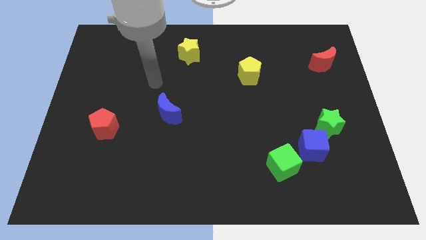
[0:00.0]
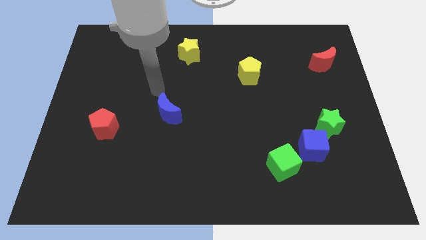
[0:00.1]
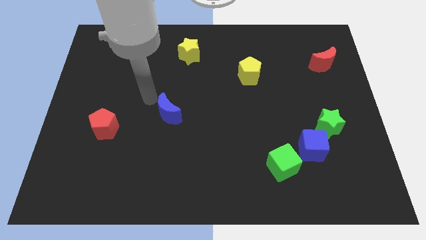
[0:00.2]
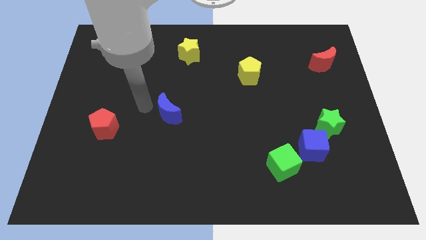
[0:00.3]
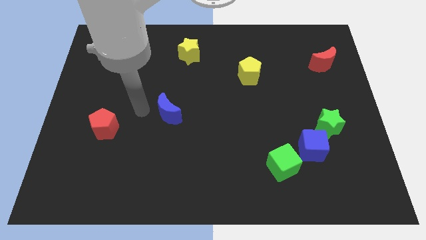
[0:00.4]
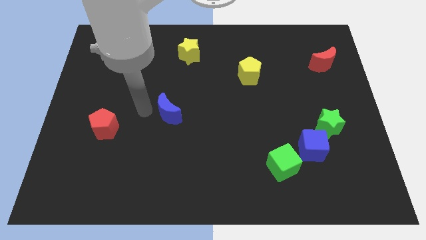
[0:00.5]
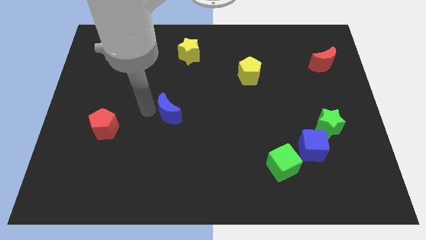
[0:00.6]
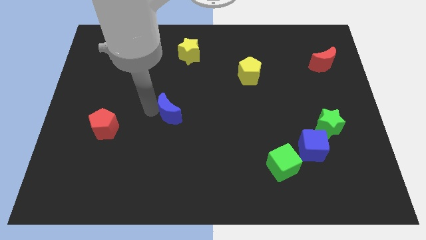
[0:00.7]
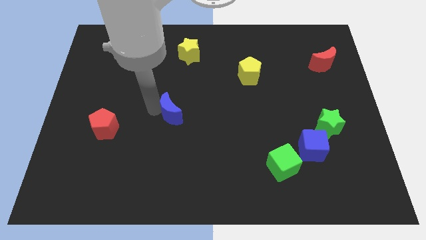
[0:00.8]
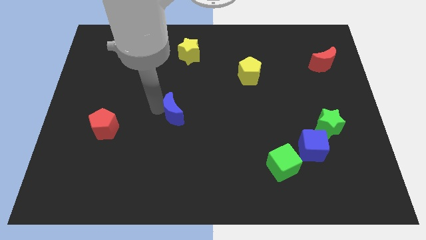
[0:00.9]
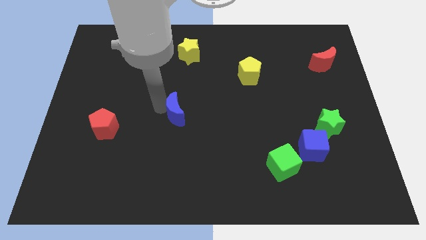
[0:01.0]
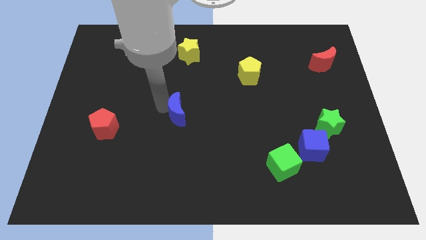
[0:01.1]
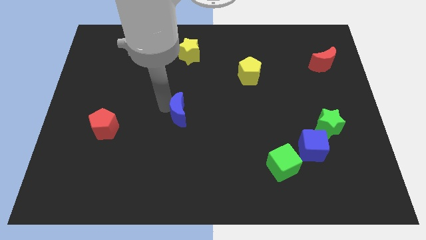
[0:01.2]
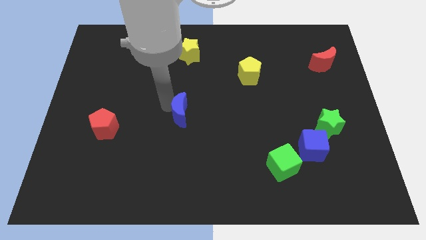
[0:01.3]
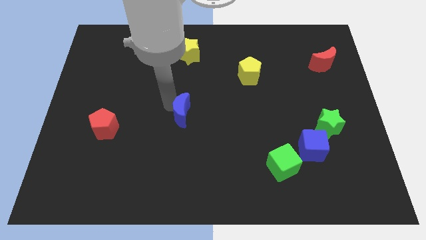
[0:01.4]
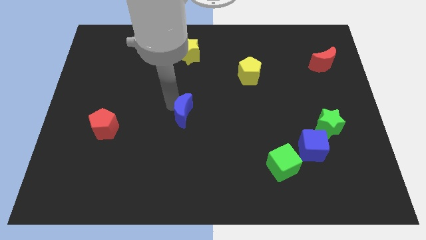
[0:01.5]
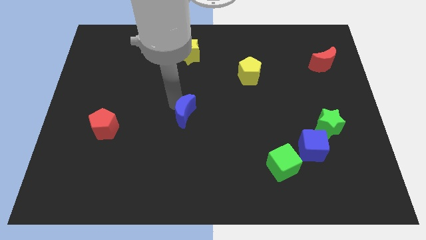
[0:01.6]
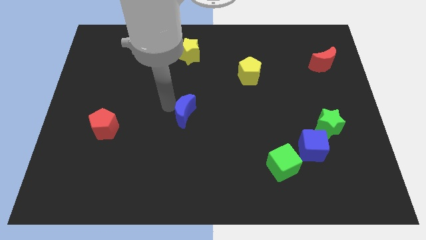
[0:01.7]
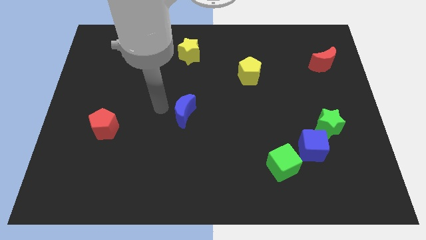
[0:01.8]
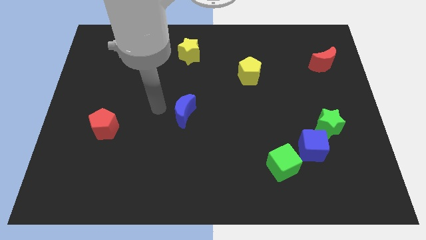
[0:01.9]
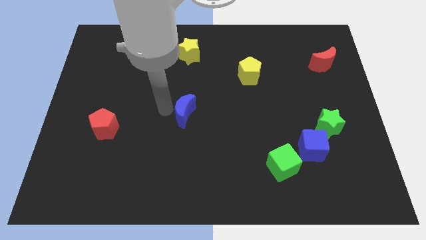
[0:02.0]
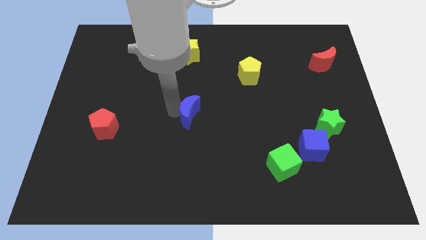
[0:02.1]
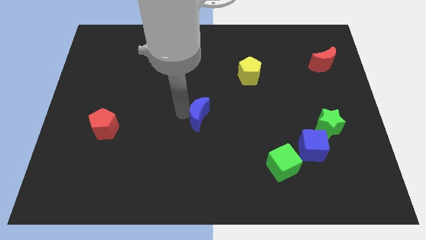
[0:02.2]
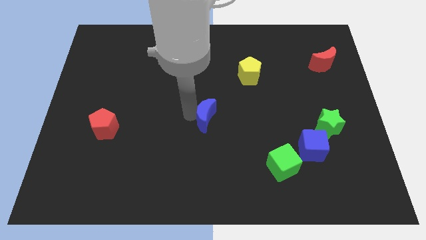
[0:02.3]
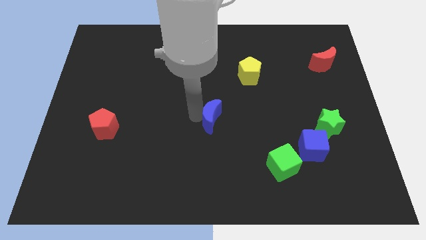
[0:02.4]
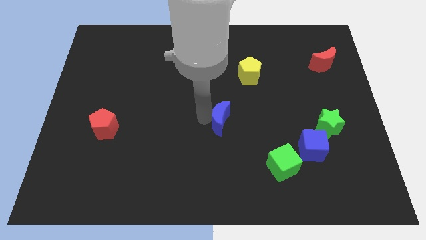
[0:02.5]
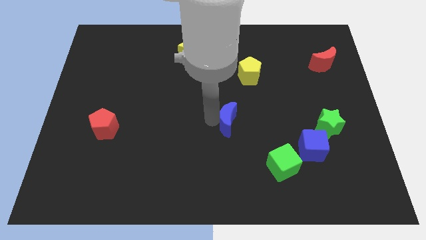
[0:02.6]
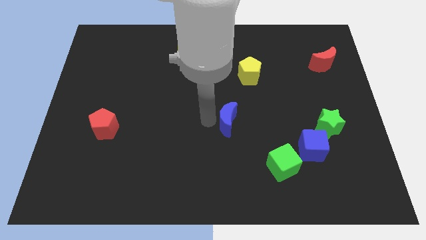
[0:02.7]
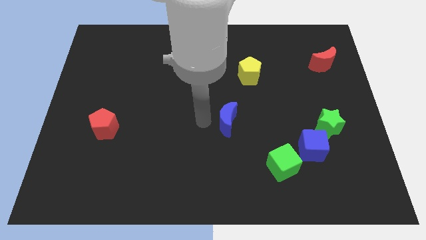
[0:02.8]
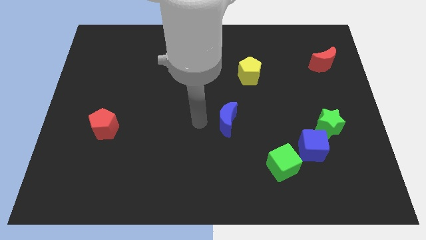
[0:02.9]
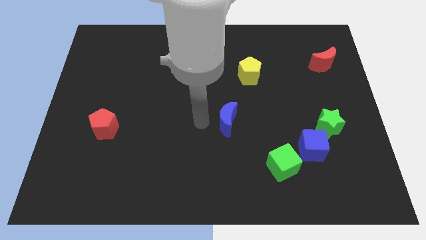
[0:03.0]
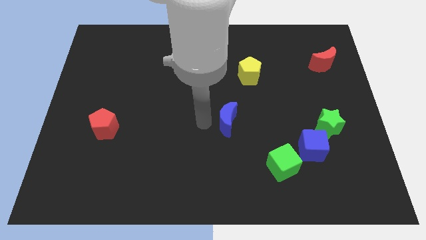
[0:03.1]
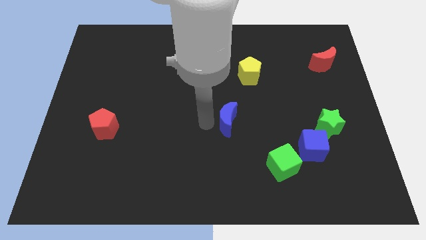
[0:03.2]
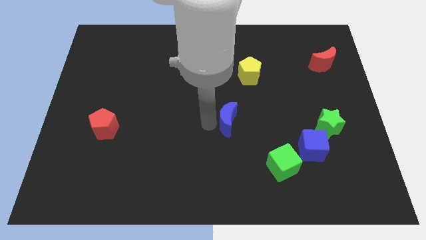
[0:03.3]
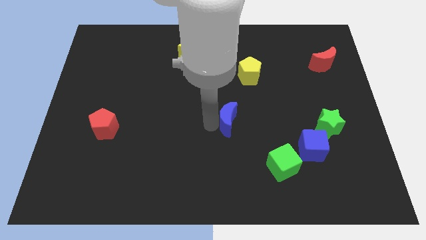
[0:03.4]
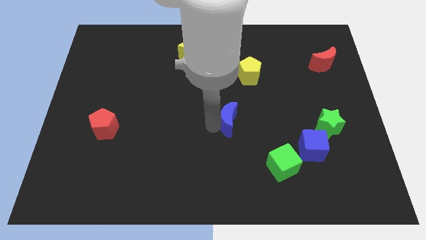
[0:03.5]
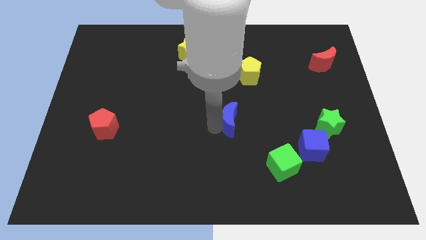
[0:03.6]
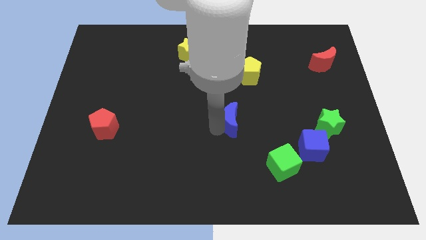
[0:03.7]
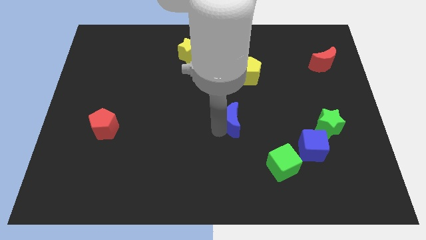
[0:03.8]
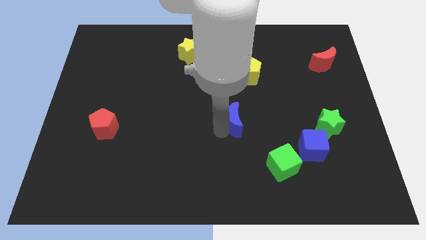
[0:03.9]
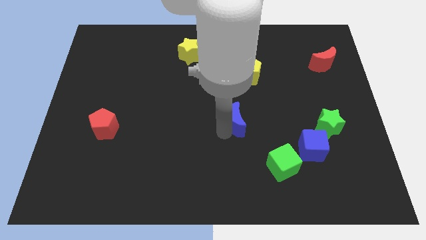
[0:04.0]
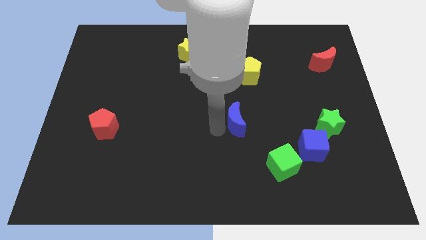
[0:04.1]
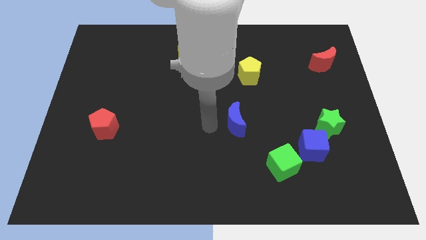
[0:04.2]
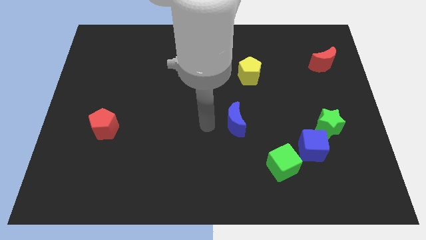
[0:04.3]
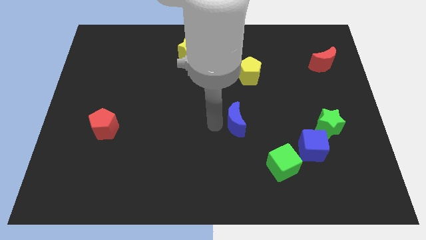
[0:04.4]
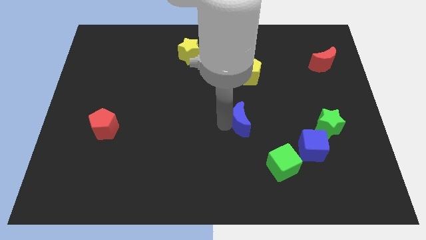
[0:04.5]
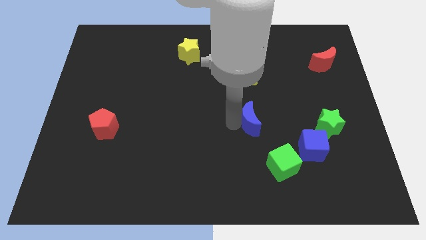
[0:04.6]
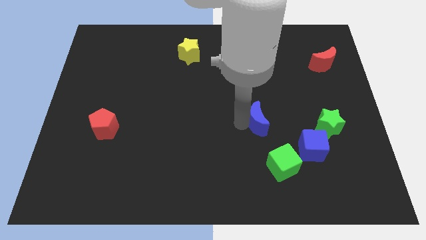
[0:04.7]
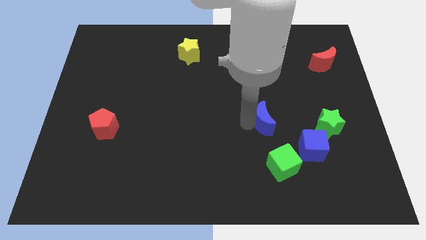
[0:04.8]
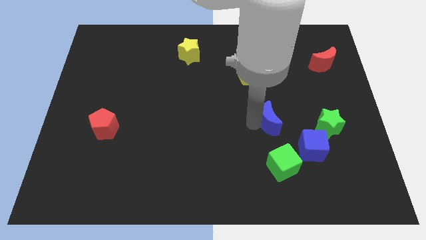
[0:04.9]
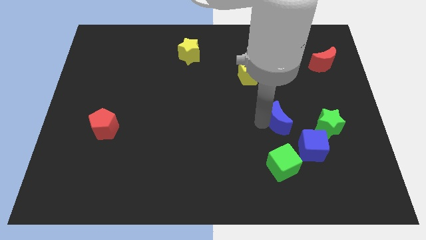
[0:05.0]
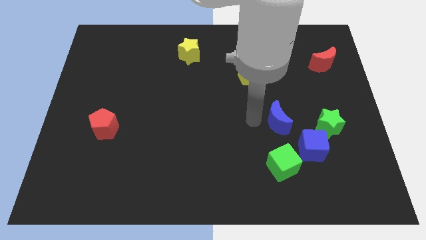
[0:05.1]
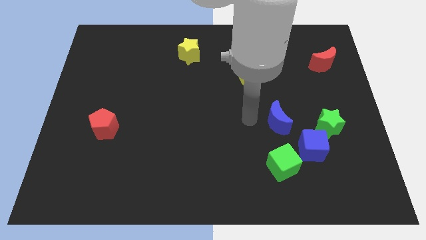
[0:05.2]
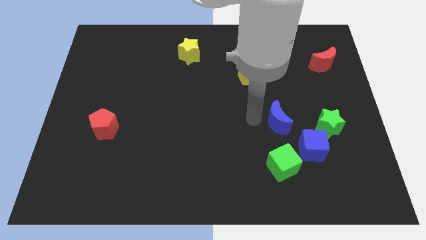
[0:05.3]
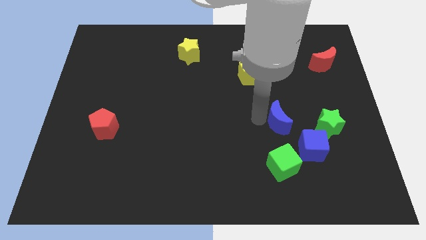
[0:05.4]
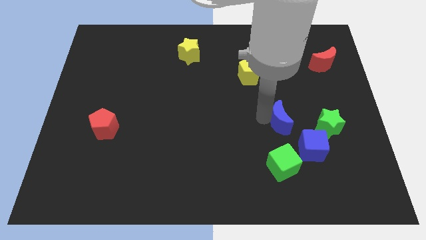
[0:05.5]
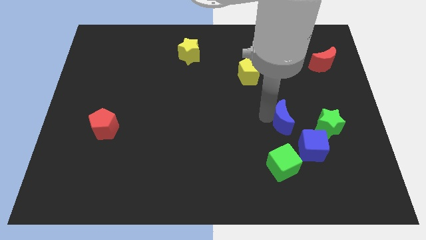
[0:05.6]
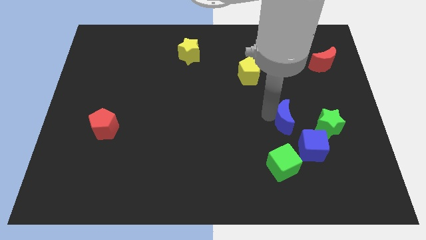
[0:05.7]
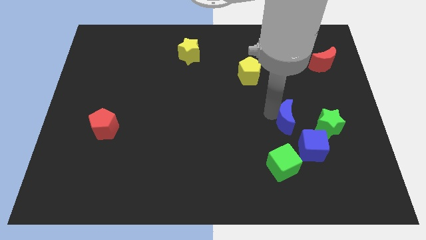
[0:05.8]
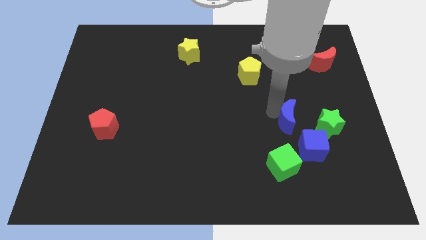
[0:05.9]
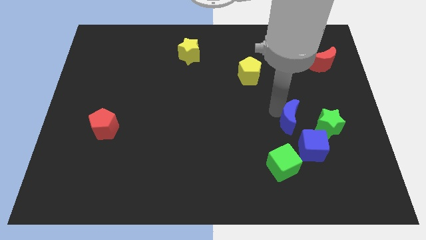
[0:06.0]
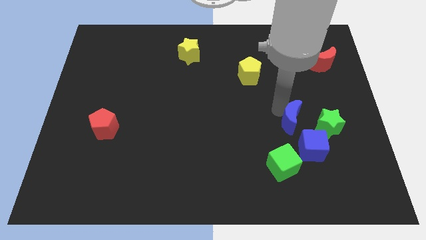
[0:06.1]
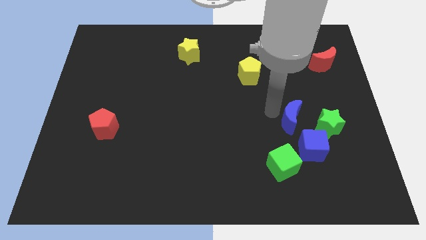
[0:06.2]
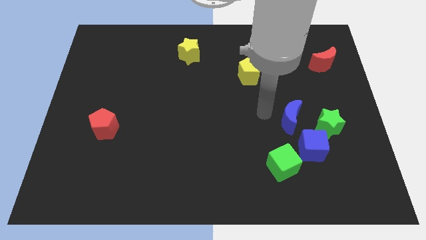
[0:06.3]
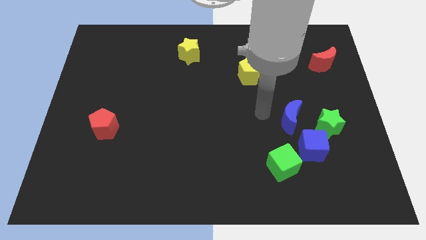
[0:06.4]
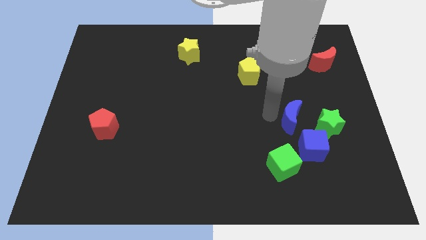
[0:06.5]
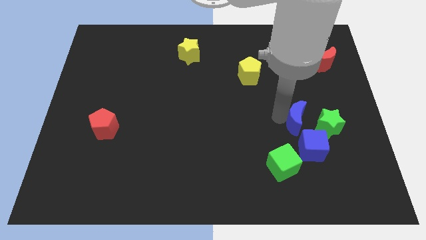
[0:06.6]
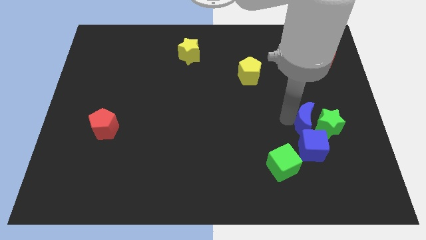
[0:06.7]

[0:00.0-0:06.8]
push the blue moon towards the green star

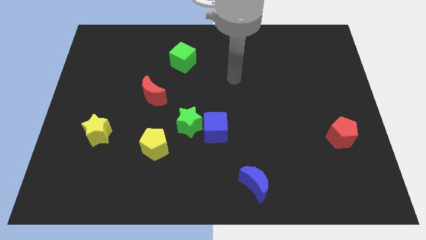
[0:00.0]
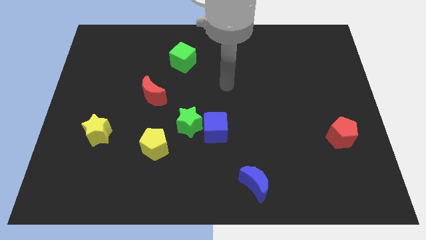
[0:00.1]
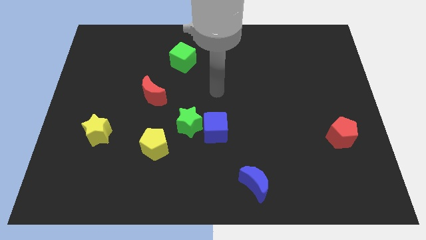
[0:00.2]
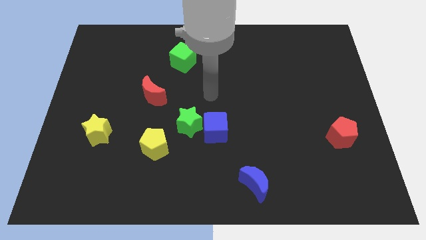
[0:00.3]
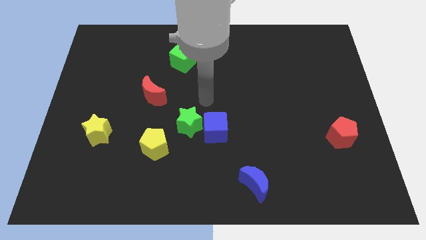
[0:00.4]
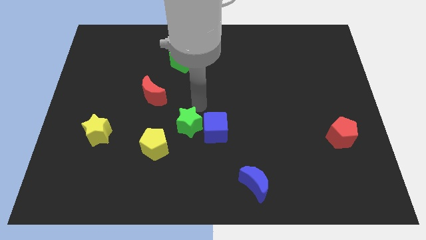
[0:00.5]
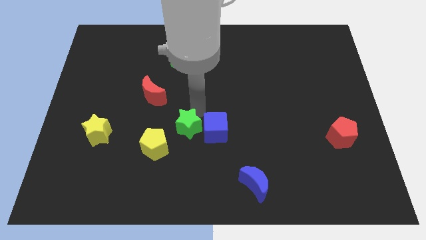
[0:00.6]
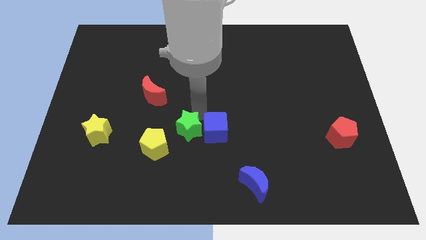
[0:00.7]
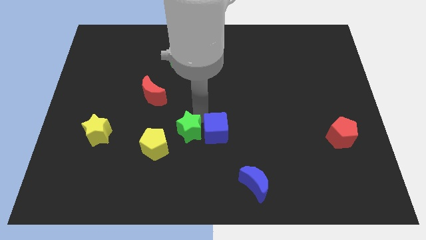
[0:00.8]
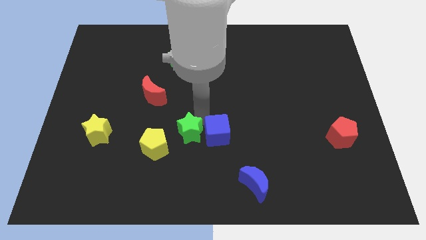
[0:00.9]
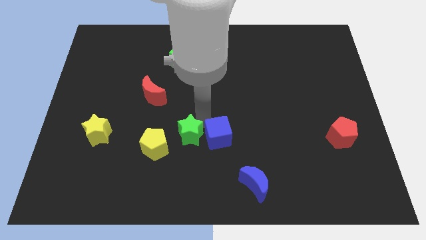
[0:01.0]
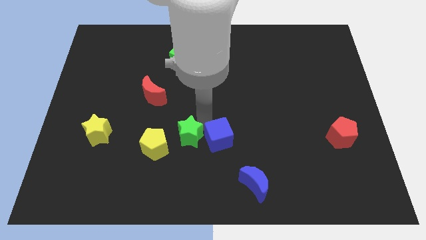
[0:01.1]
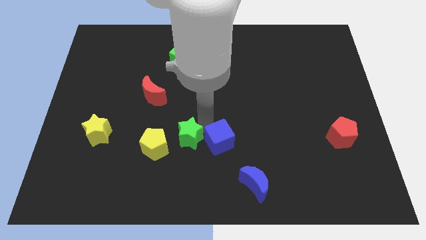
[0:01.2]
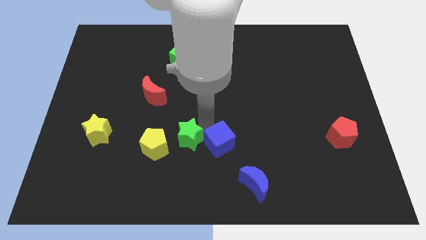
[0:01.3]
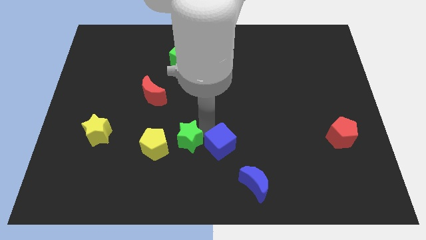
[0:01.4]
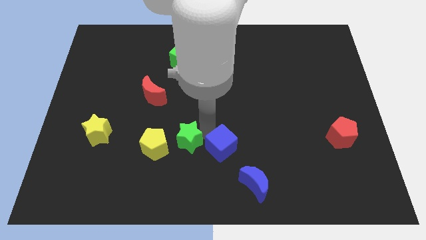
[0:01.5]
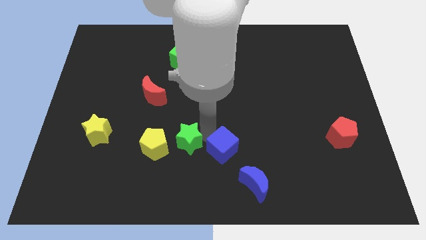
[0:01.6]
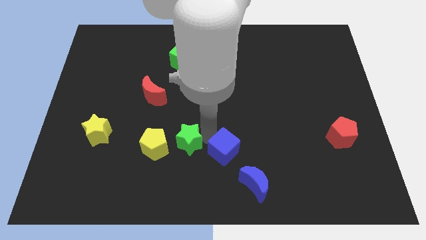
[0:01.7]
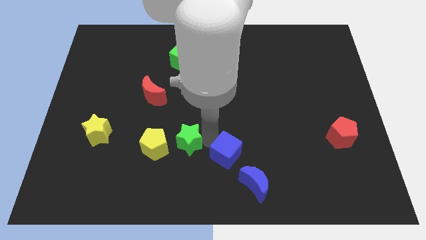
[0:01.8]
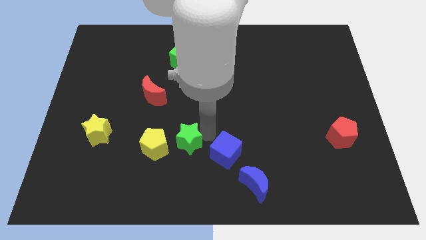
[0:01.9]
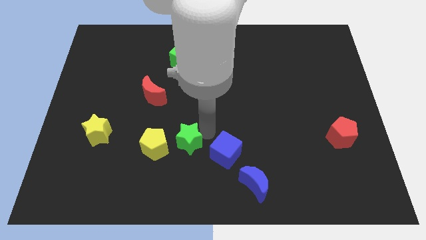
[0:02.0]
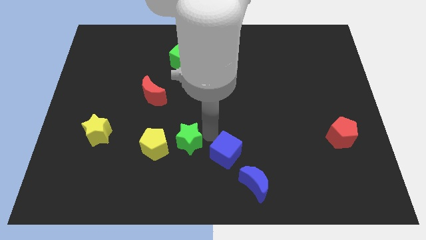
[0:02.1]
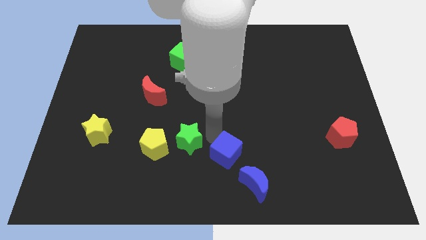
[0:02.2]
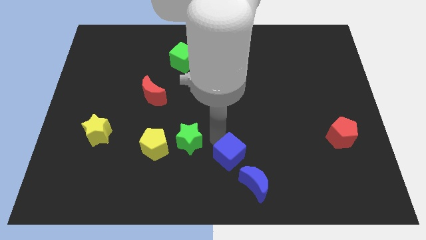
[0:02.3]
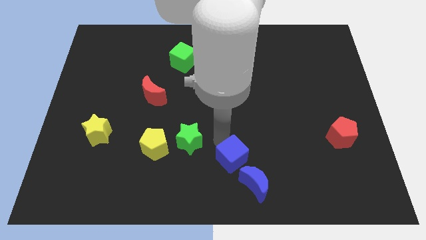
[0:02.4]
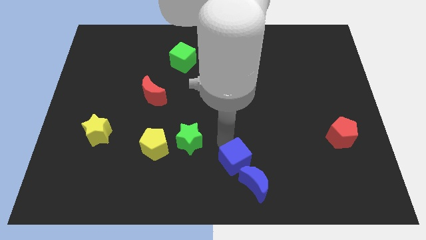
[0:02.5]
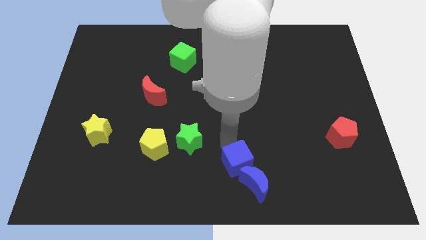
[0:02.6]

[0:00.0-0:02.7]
slide the blue cube close to the blue moon
